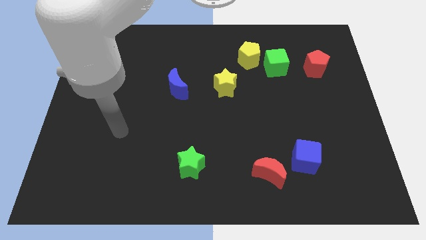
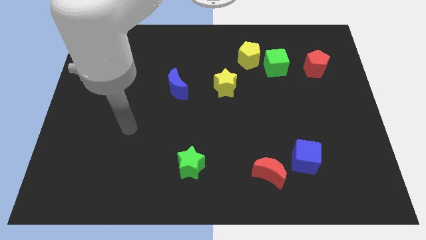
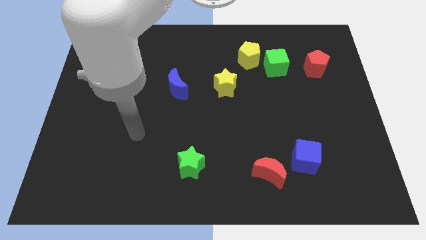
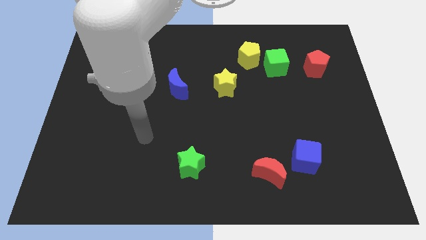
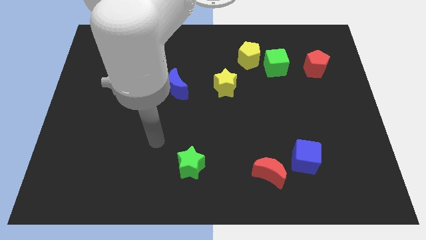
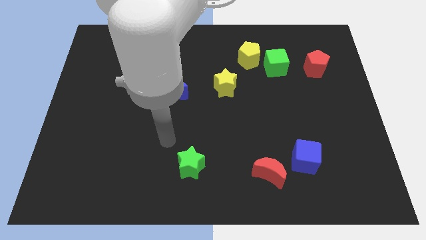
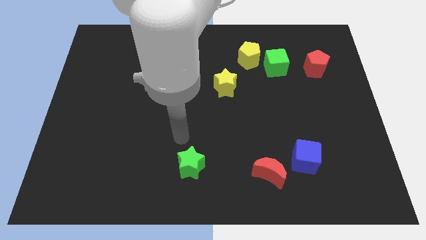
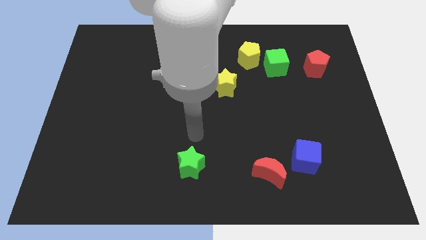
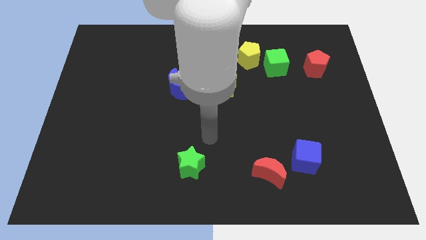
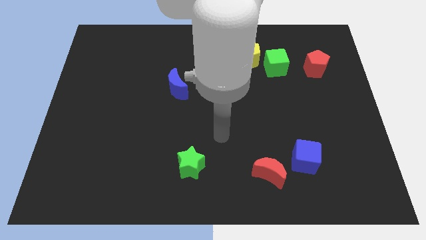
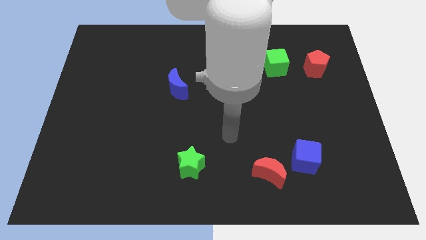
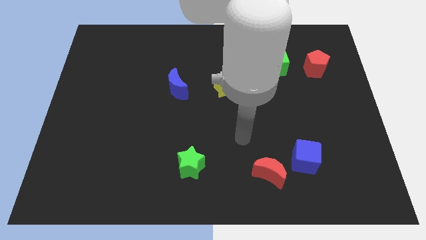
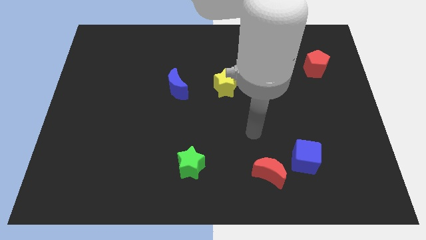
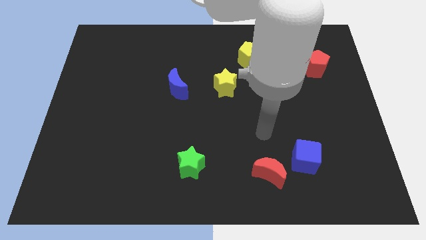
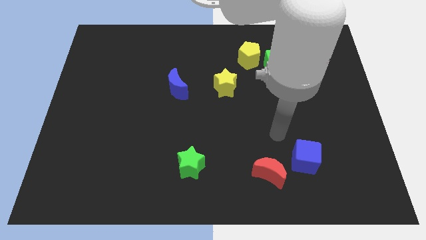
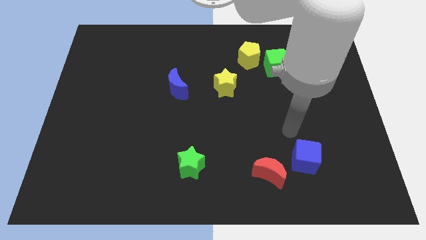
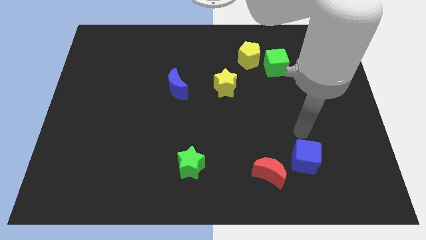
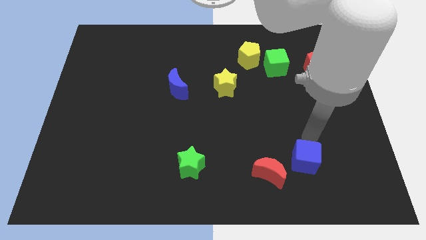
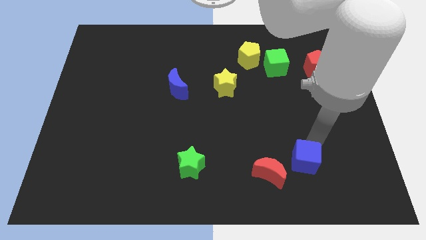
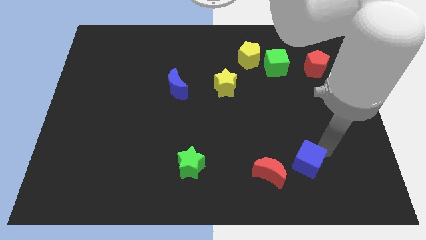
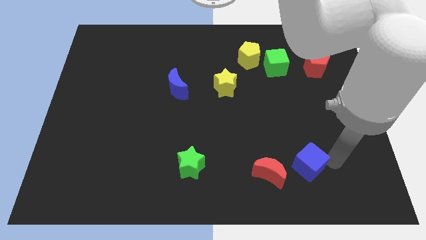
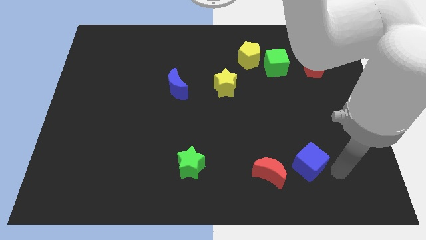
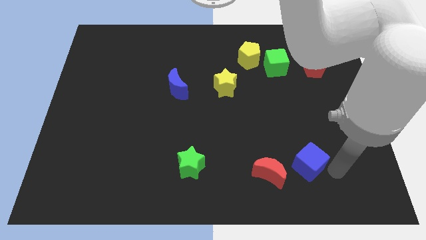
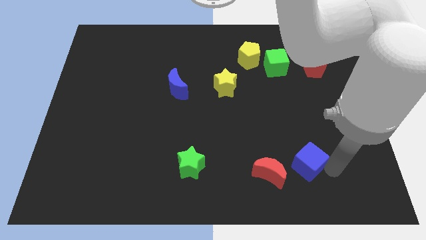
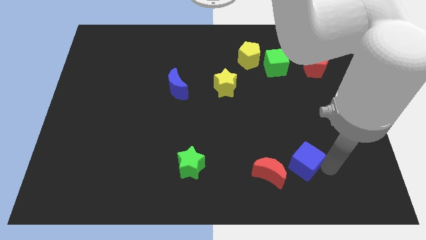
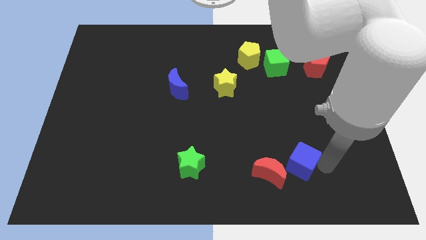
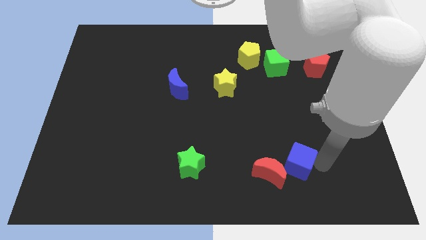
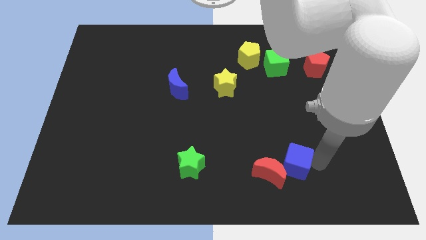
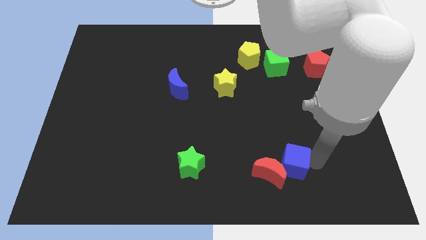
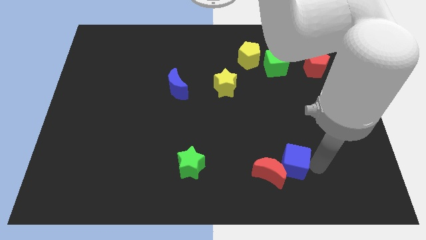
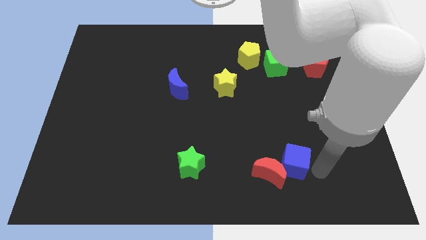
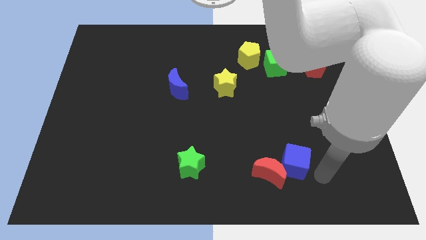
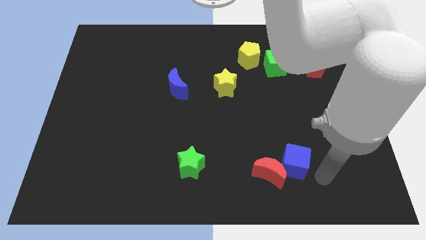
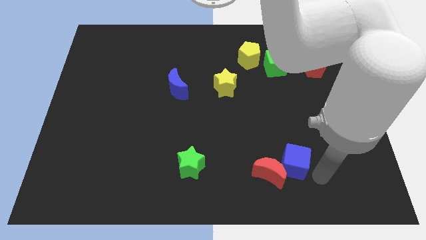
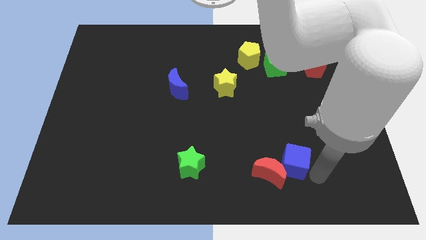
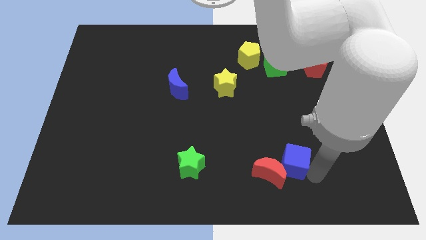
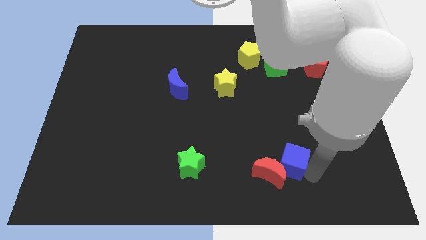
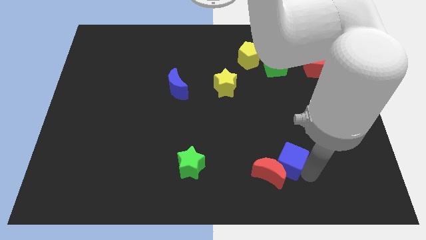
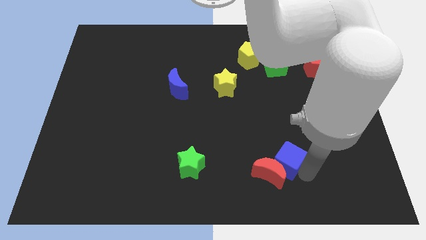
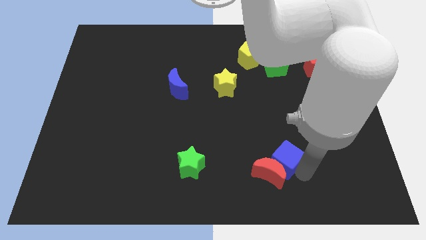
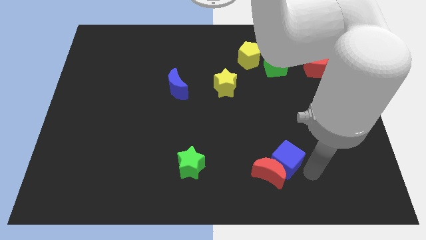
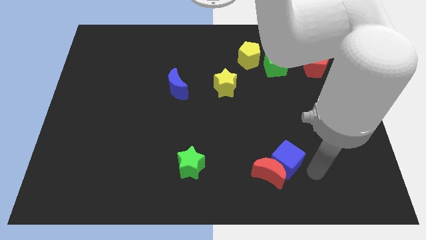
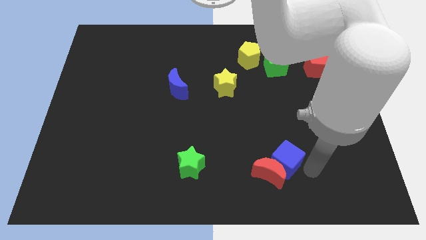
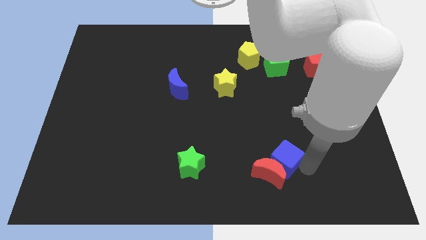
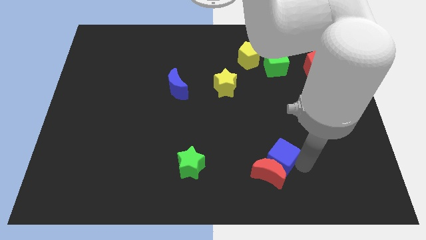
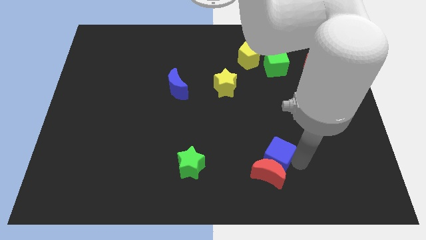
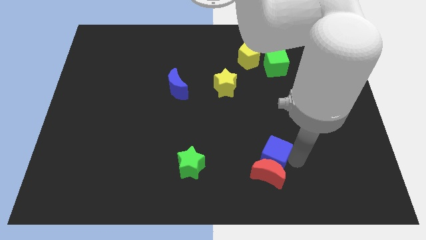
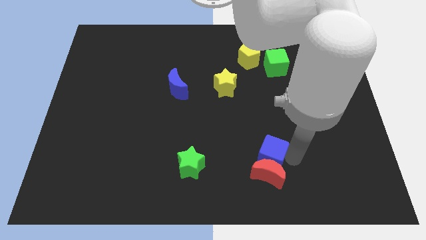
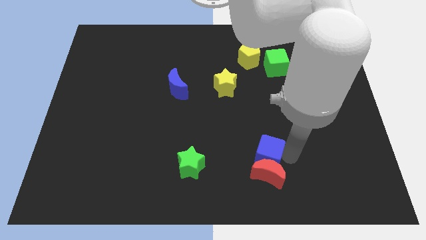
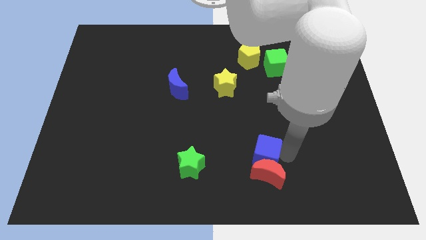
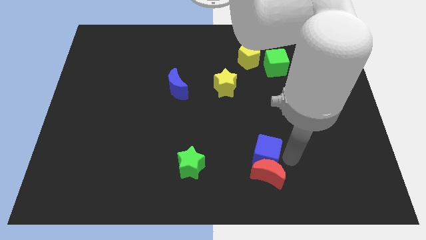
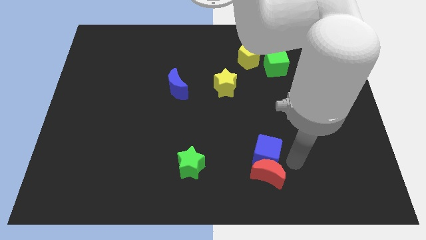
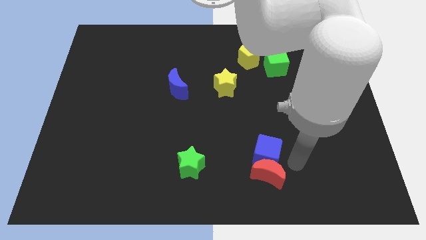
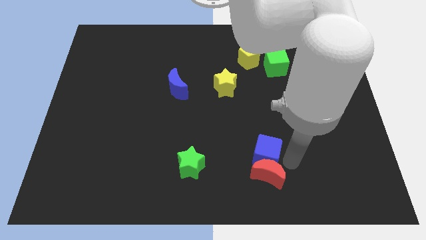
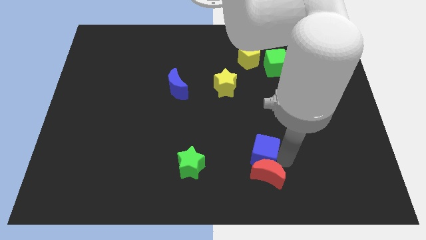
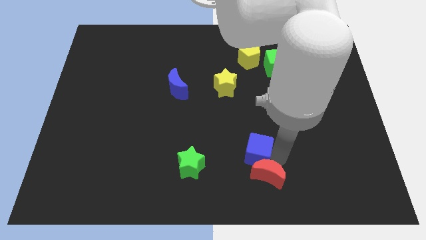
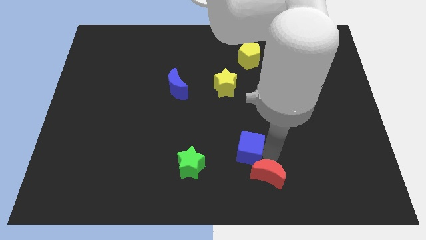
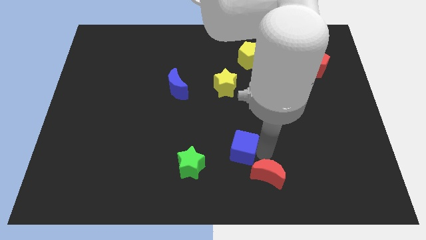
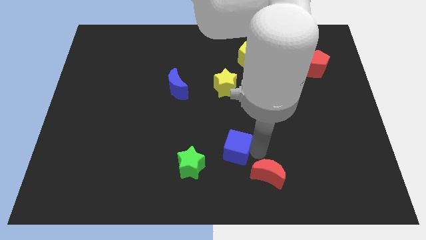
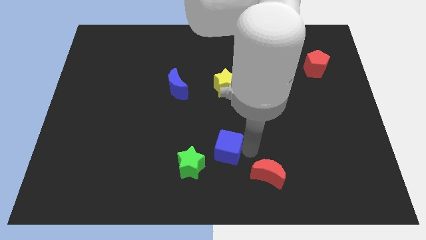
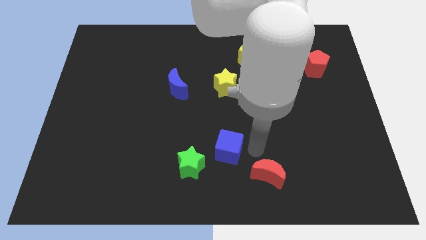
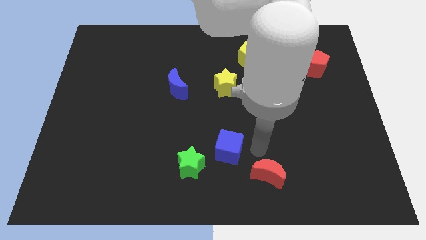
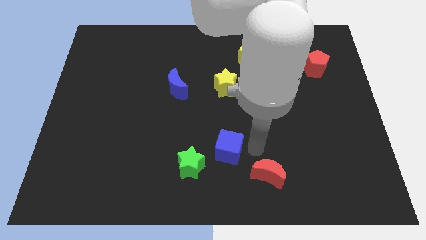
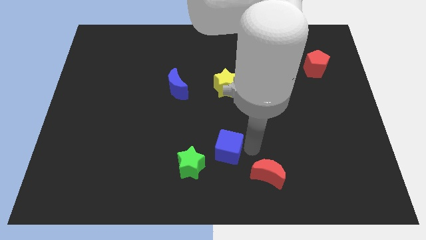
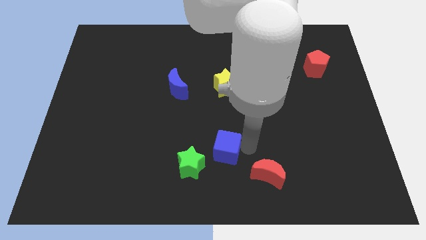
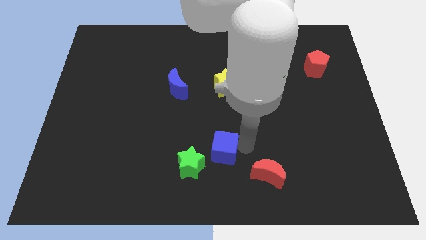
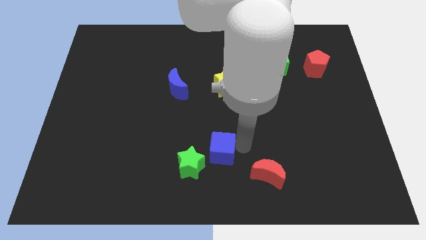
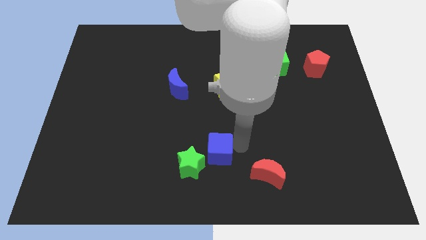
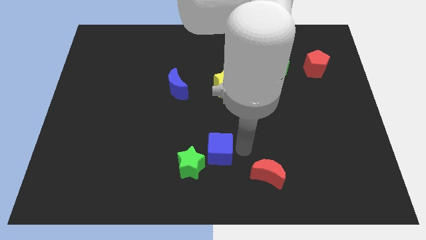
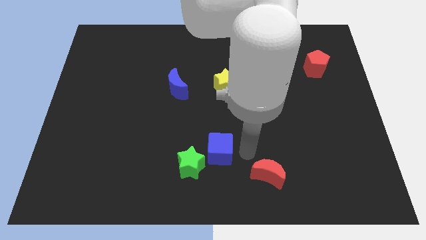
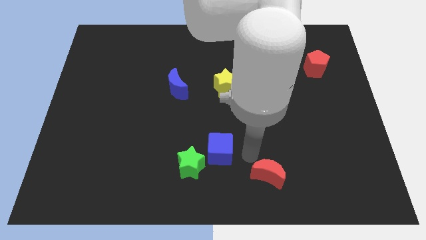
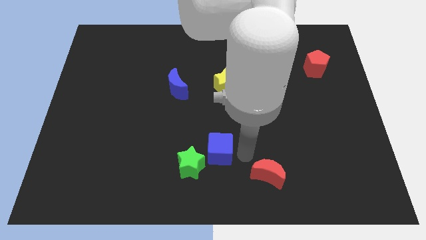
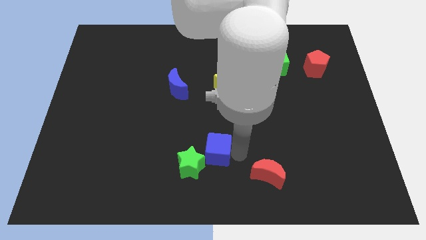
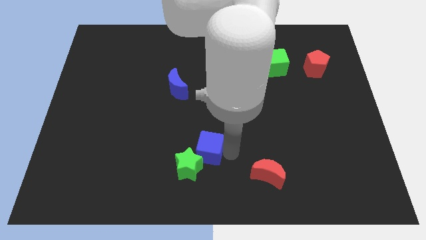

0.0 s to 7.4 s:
slide the blue cube to the left

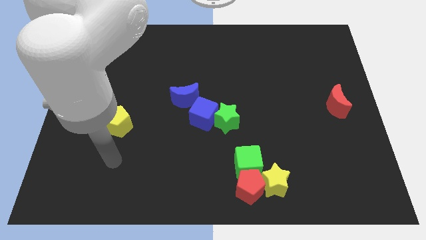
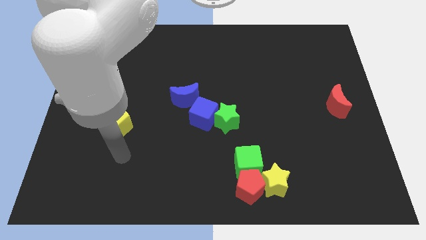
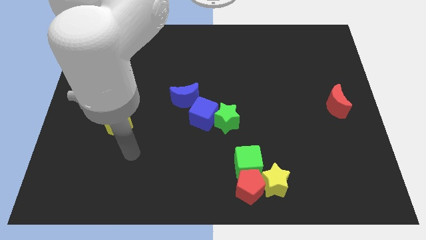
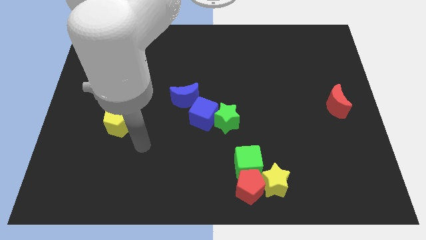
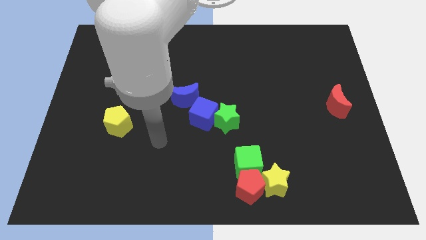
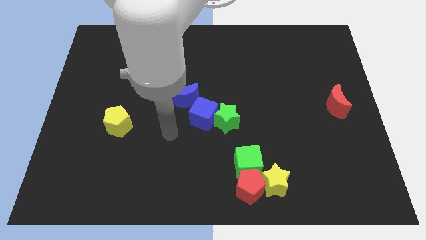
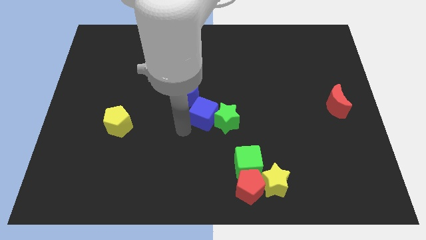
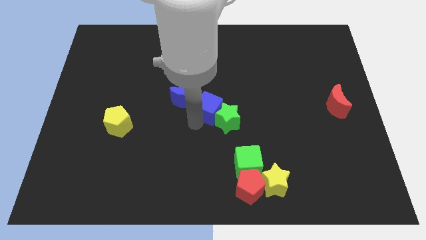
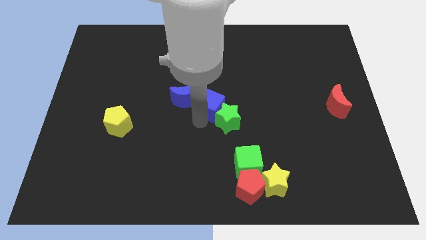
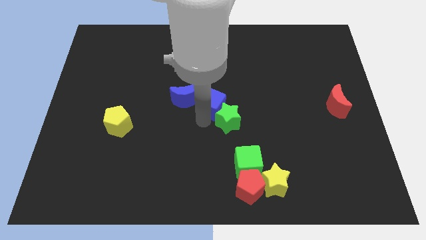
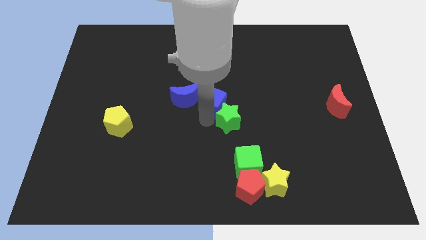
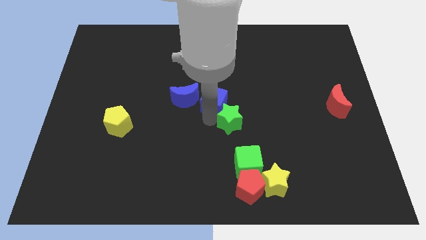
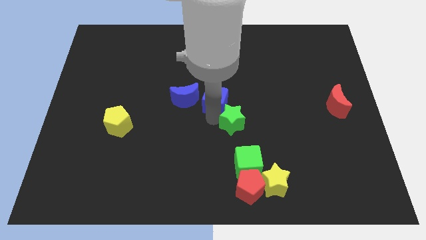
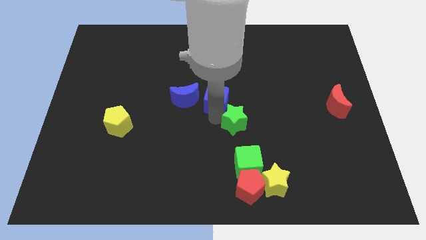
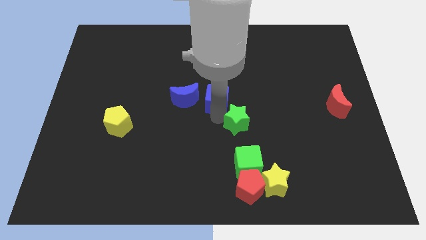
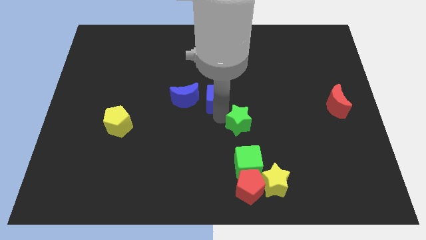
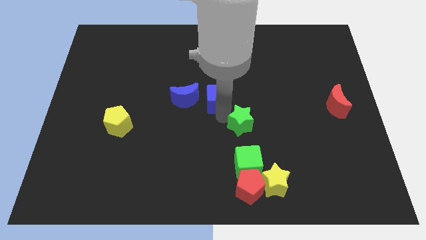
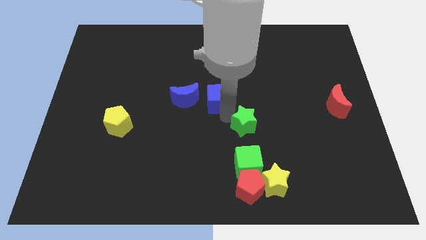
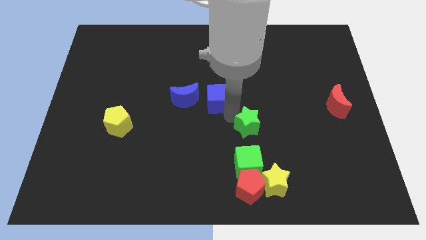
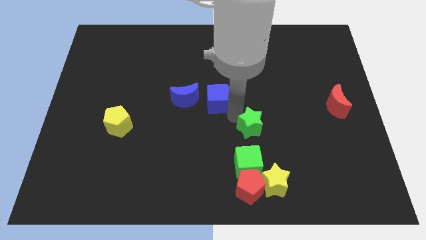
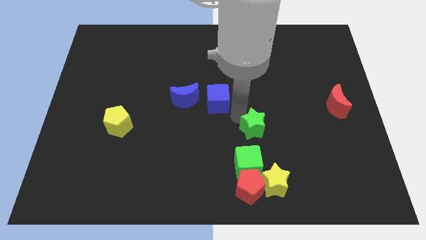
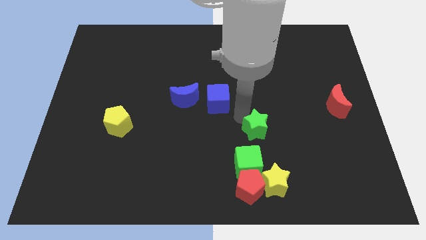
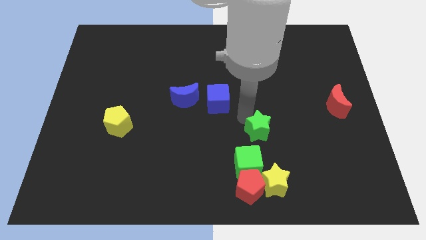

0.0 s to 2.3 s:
slightly slide the green star to the right
